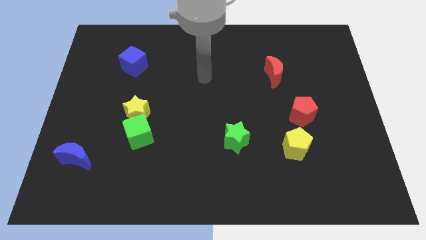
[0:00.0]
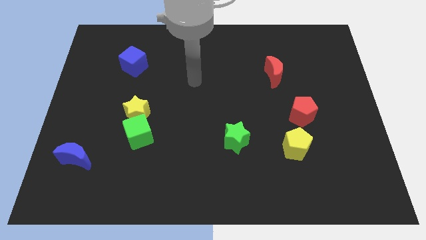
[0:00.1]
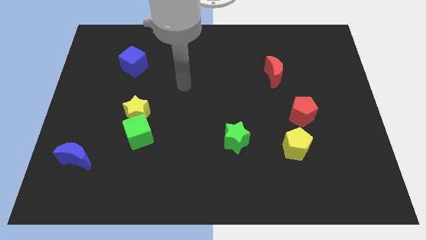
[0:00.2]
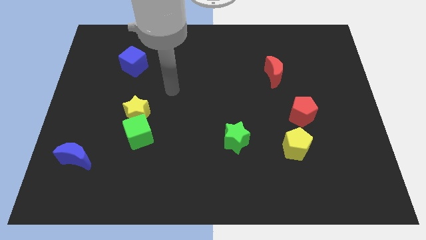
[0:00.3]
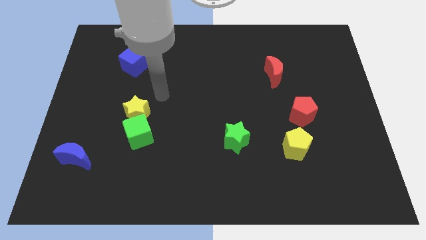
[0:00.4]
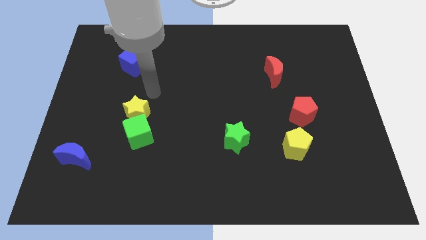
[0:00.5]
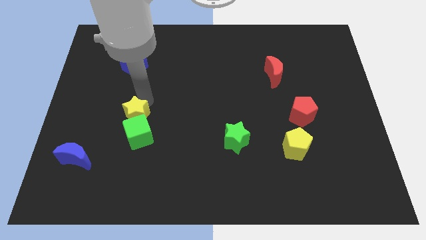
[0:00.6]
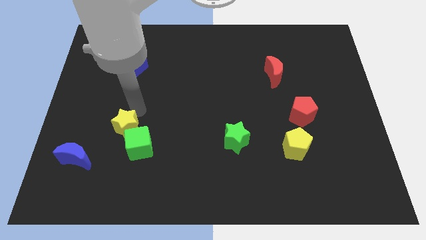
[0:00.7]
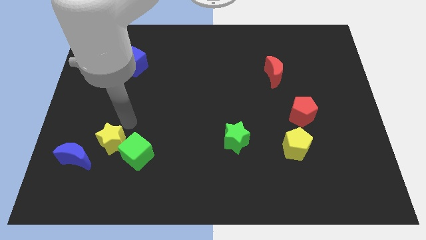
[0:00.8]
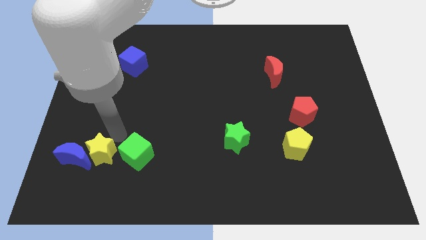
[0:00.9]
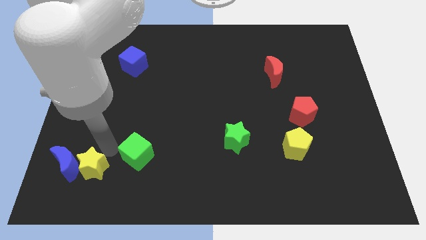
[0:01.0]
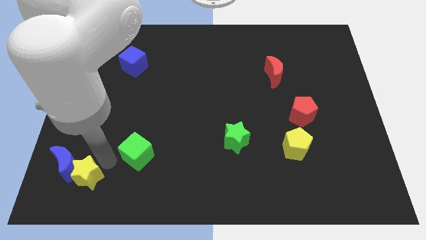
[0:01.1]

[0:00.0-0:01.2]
separate the green cube from the yellow star

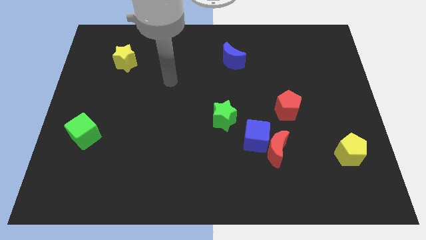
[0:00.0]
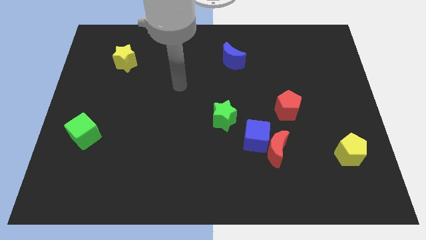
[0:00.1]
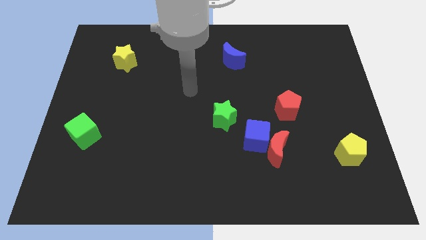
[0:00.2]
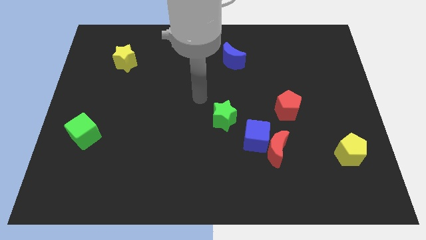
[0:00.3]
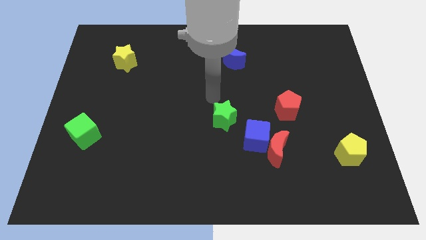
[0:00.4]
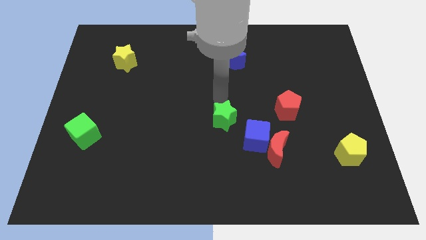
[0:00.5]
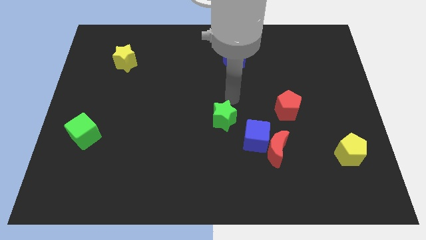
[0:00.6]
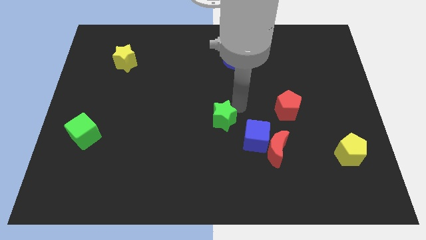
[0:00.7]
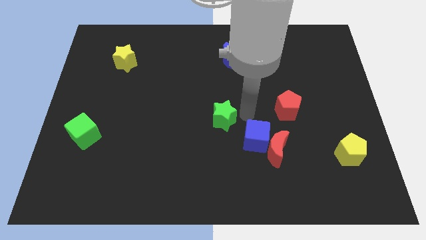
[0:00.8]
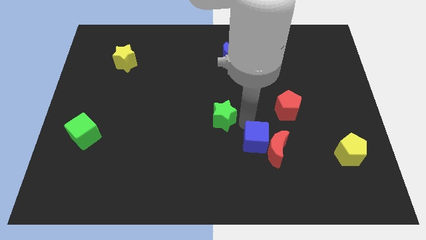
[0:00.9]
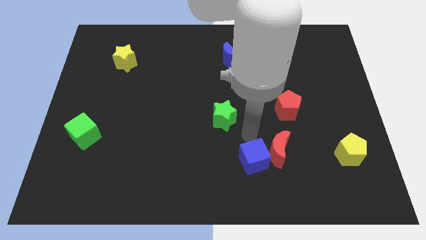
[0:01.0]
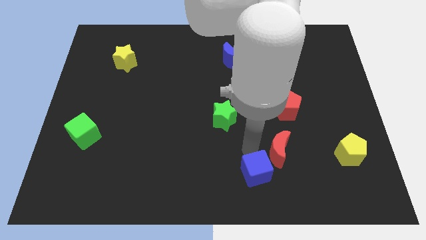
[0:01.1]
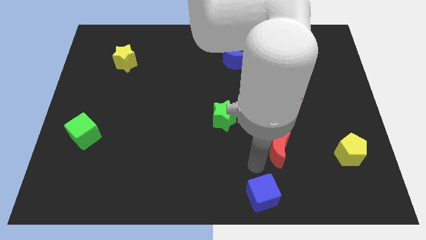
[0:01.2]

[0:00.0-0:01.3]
separate the red moon from the blue cube

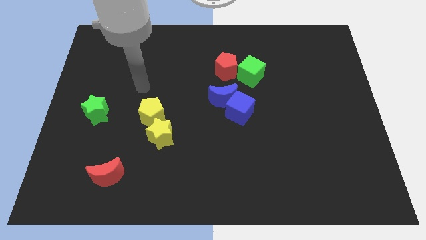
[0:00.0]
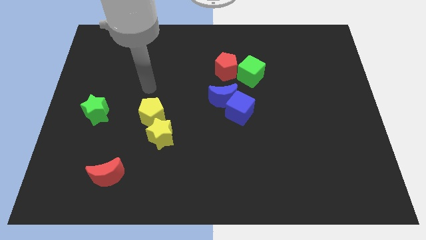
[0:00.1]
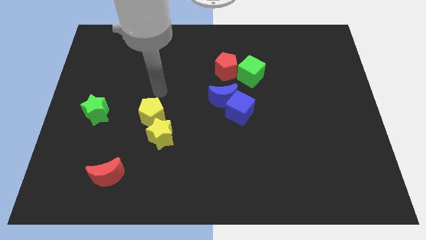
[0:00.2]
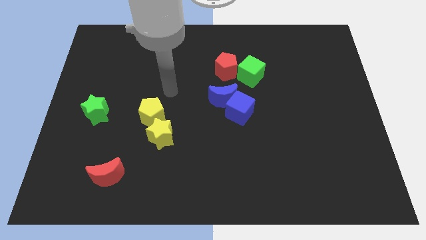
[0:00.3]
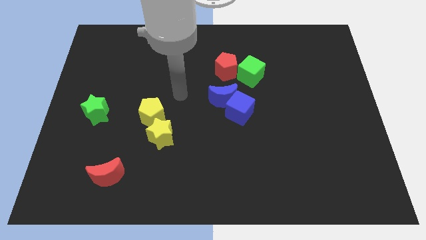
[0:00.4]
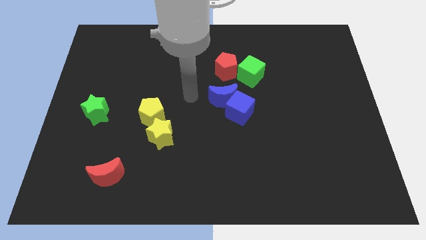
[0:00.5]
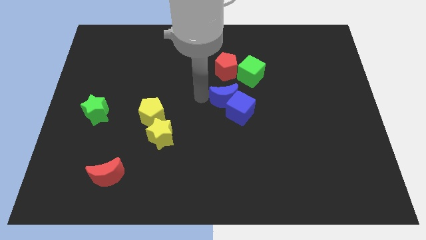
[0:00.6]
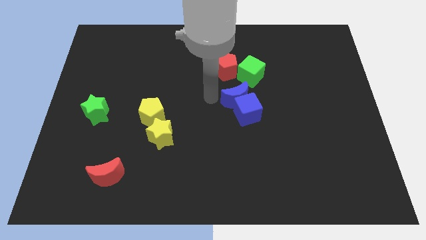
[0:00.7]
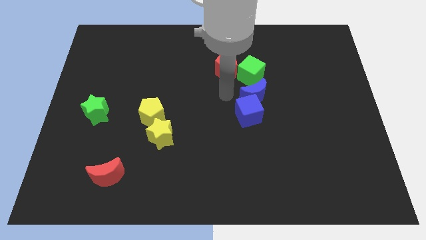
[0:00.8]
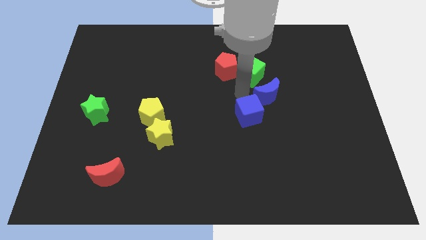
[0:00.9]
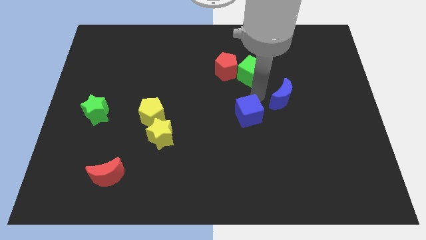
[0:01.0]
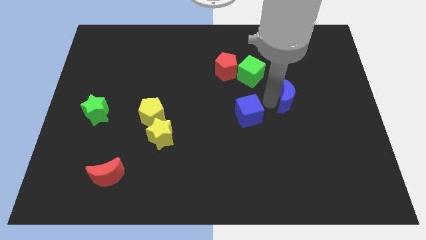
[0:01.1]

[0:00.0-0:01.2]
pull the blue cube apart from the blue moon

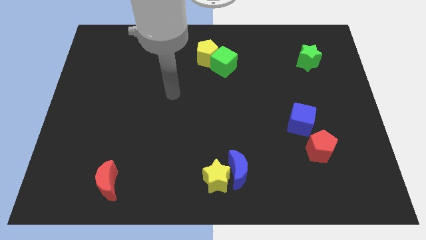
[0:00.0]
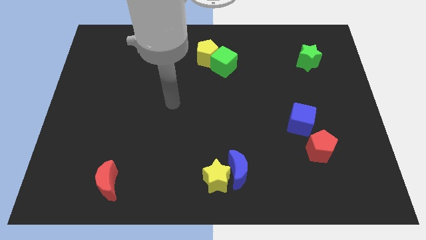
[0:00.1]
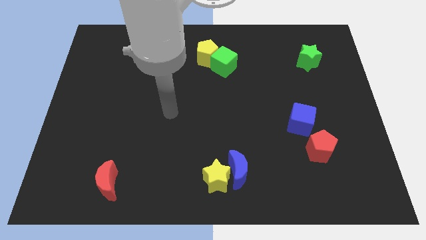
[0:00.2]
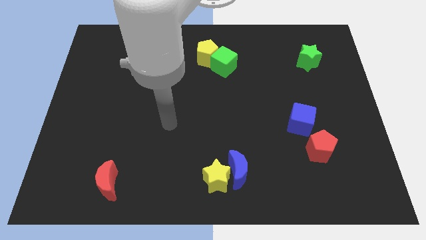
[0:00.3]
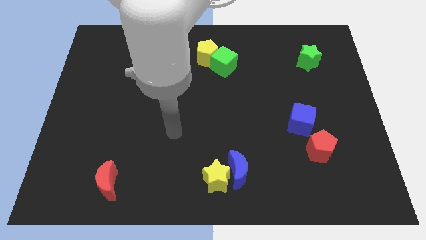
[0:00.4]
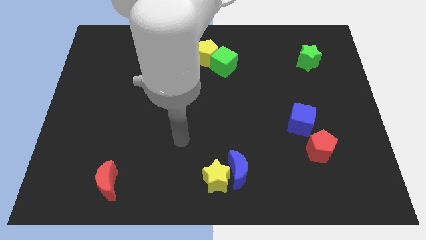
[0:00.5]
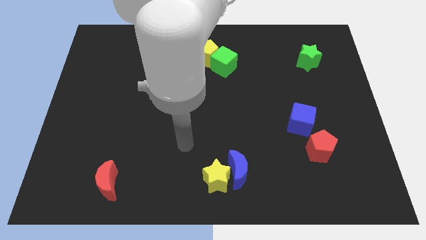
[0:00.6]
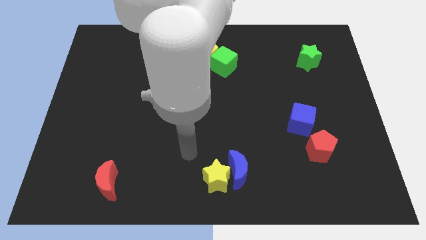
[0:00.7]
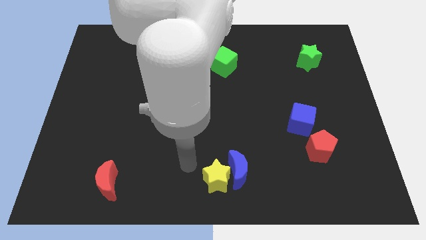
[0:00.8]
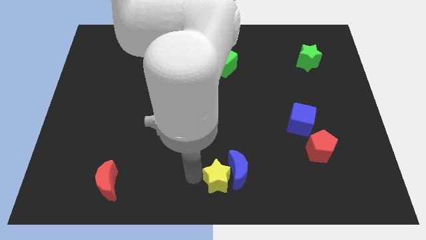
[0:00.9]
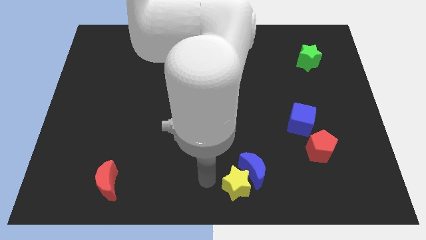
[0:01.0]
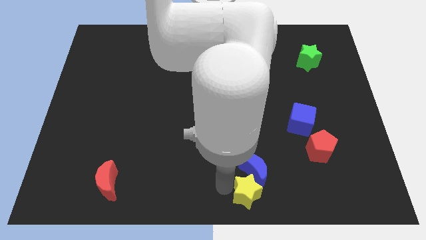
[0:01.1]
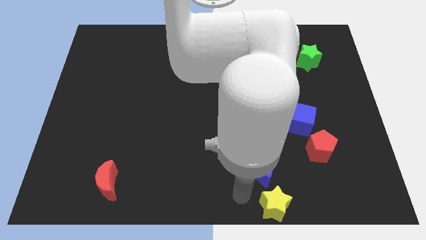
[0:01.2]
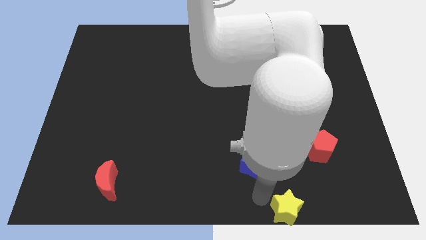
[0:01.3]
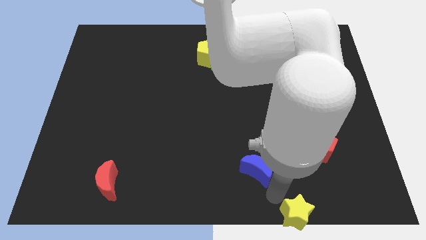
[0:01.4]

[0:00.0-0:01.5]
pull the blue moon apart from the yellow star

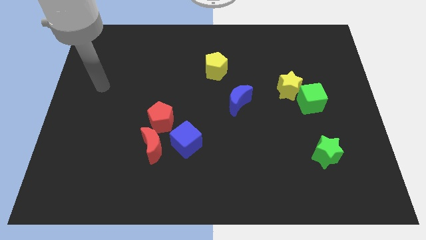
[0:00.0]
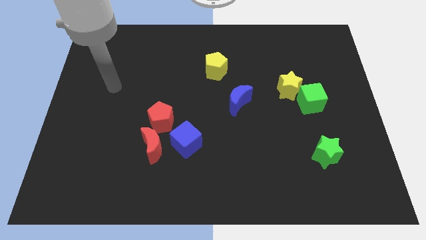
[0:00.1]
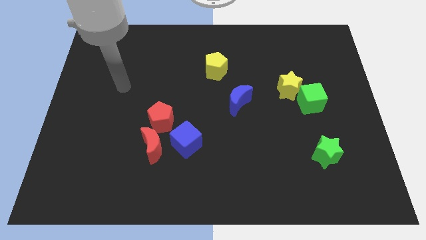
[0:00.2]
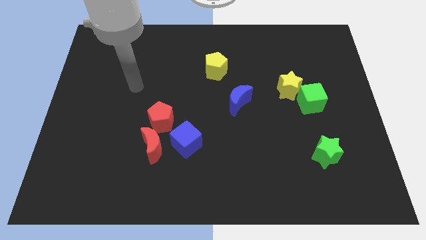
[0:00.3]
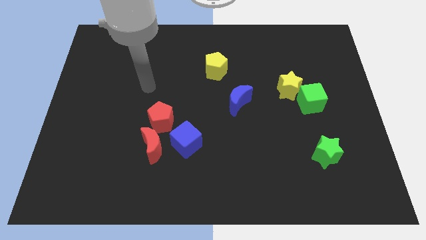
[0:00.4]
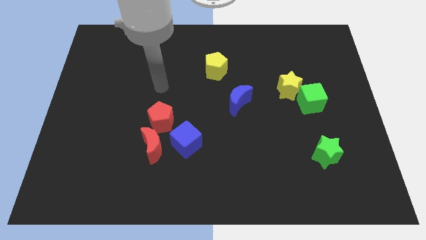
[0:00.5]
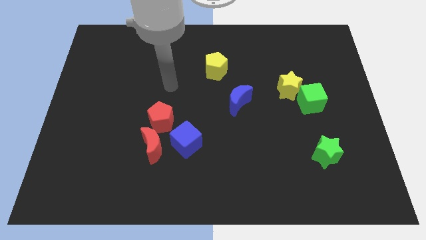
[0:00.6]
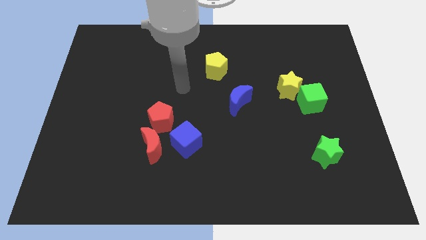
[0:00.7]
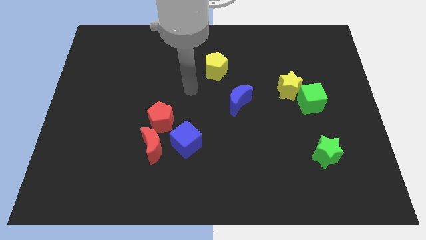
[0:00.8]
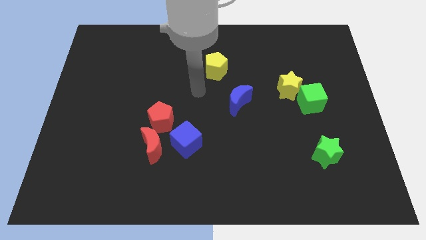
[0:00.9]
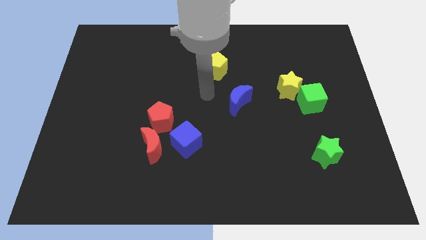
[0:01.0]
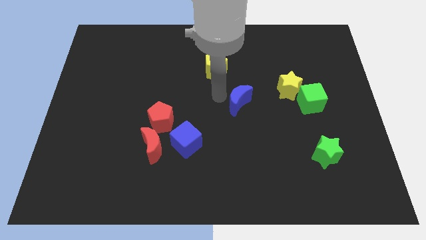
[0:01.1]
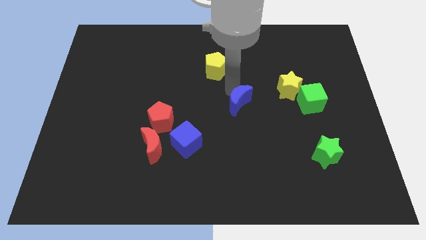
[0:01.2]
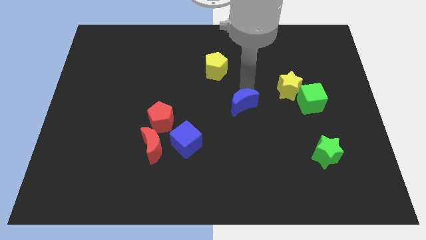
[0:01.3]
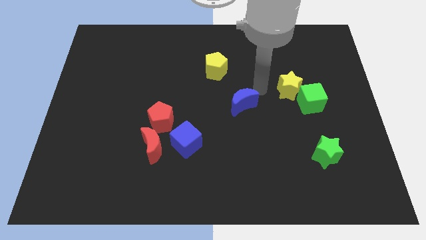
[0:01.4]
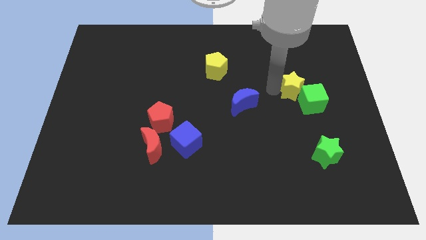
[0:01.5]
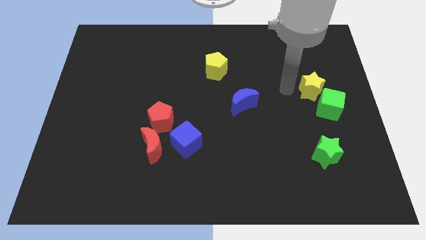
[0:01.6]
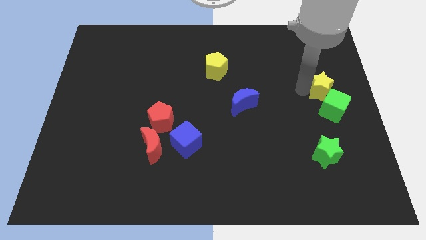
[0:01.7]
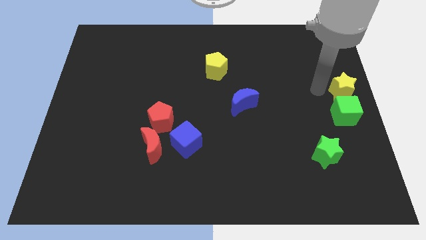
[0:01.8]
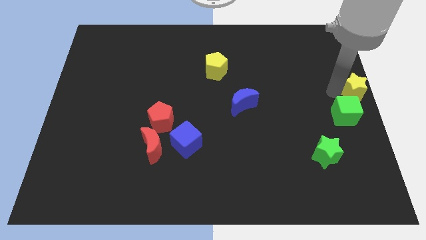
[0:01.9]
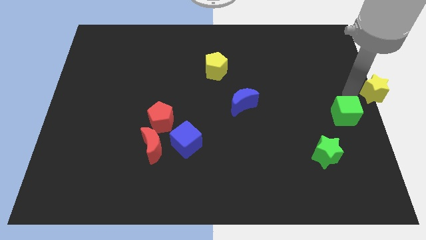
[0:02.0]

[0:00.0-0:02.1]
move the green cube away from the yellow star

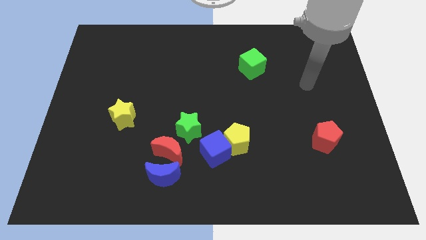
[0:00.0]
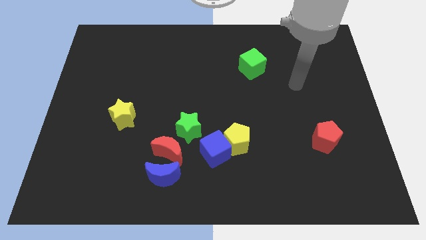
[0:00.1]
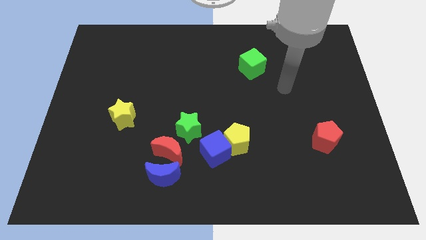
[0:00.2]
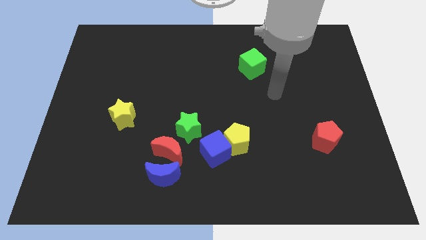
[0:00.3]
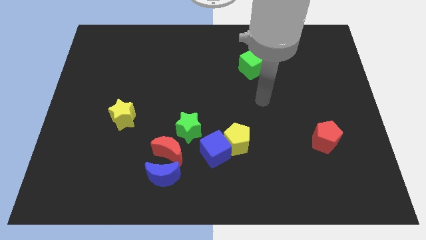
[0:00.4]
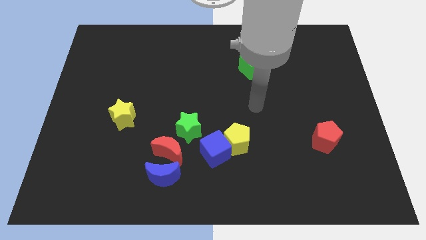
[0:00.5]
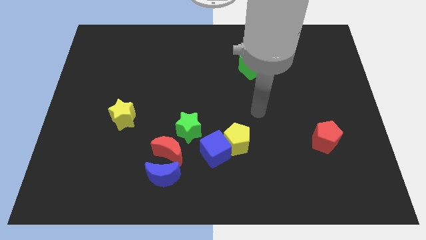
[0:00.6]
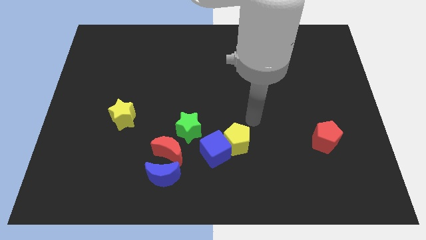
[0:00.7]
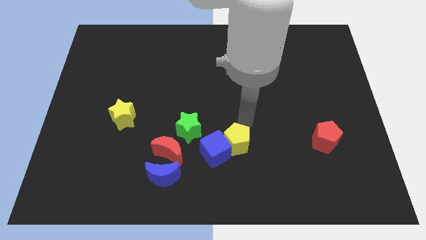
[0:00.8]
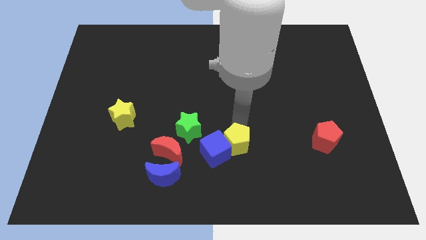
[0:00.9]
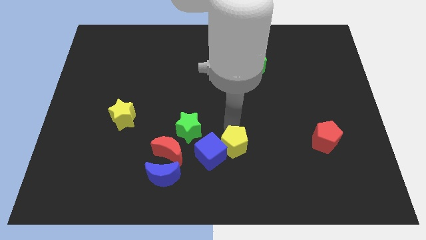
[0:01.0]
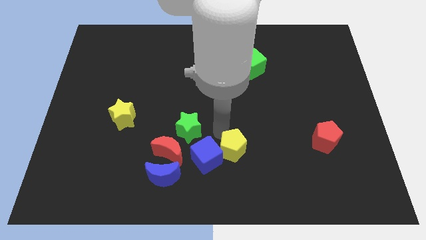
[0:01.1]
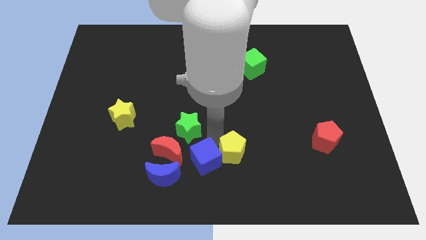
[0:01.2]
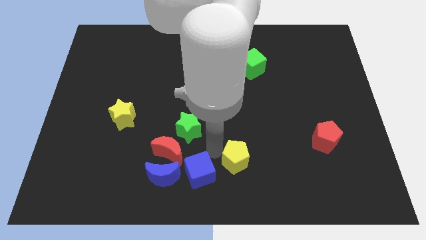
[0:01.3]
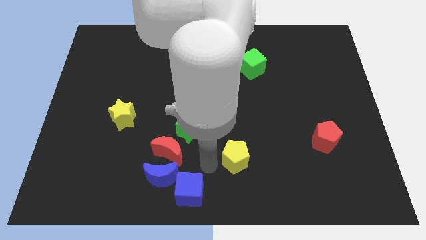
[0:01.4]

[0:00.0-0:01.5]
move the yellow pentagon away from the blue cube

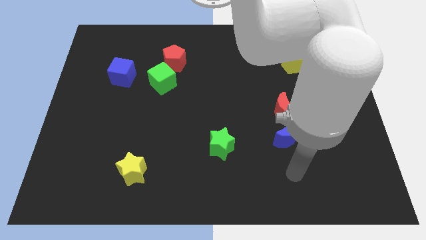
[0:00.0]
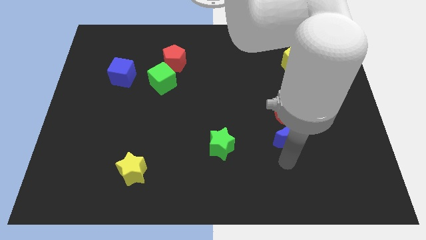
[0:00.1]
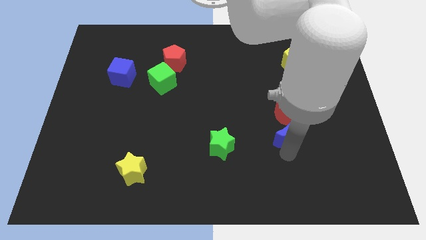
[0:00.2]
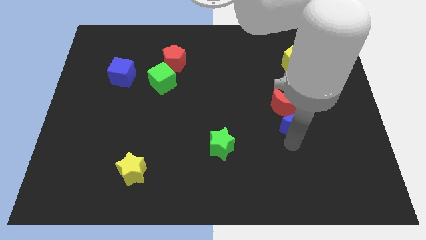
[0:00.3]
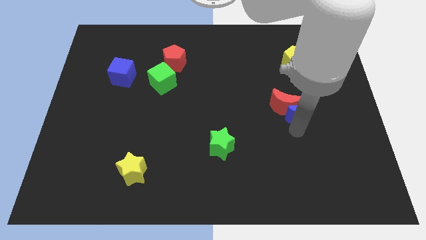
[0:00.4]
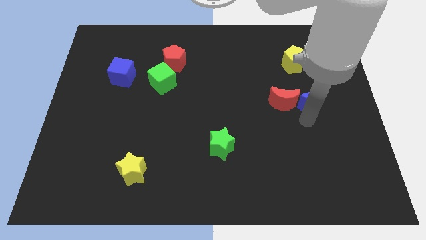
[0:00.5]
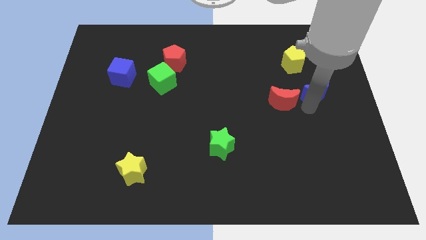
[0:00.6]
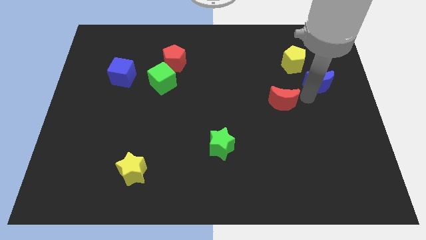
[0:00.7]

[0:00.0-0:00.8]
move the red moon away from the blue moon
